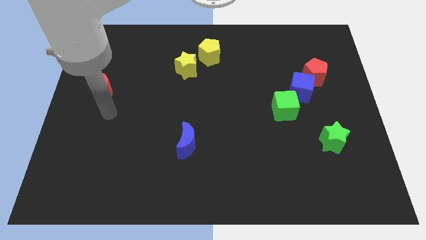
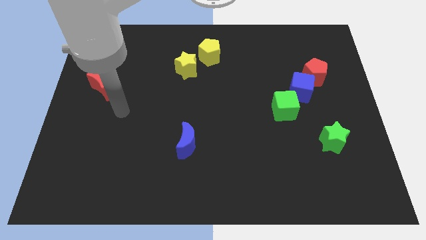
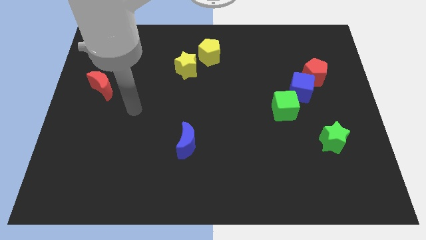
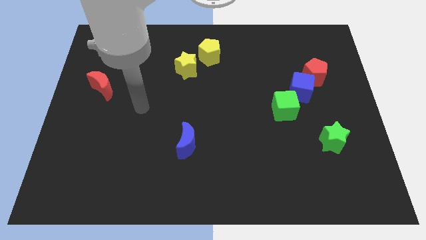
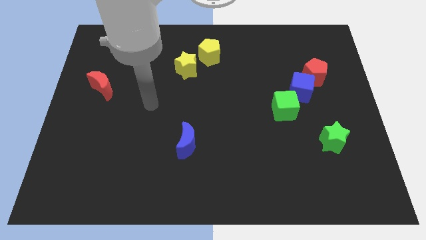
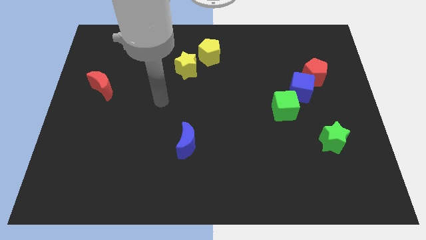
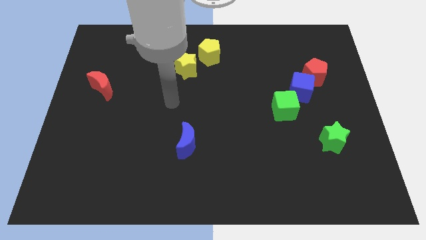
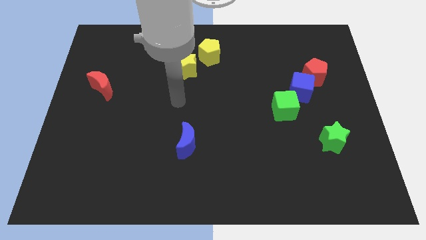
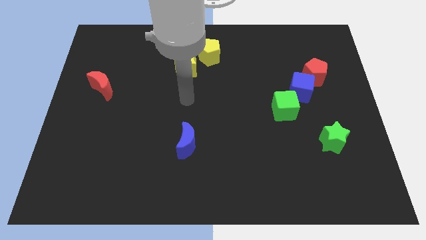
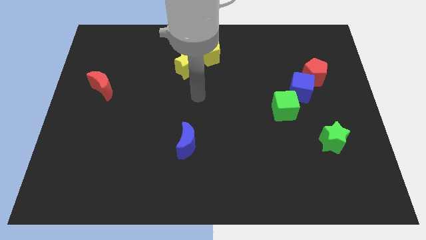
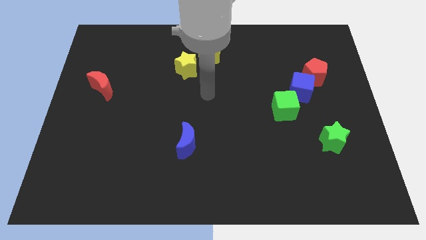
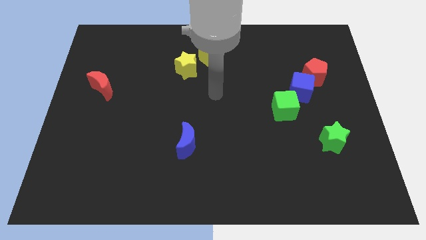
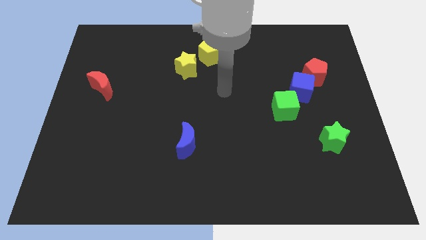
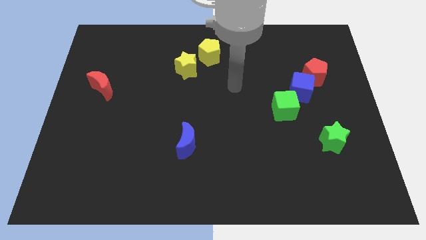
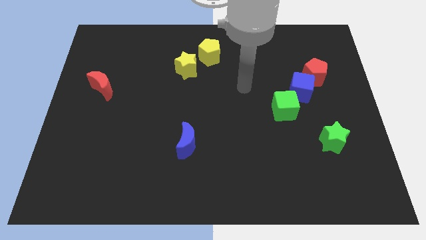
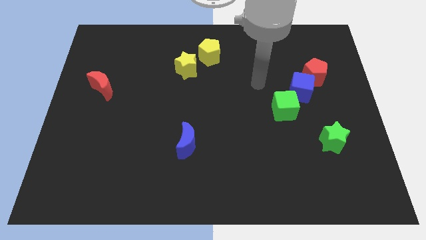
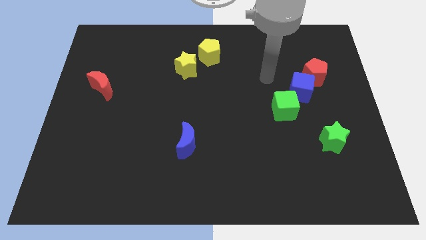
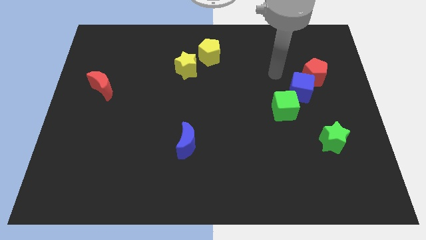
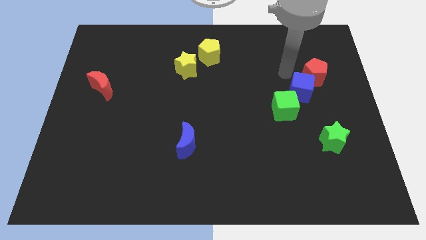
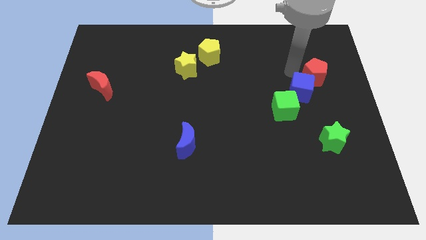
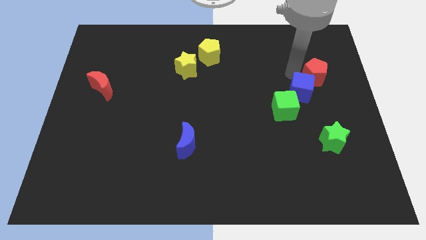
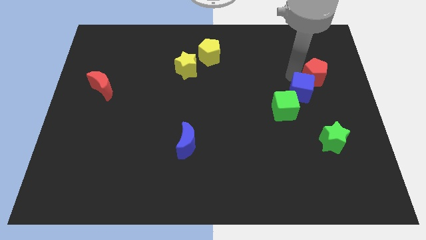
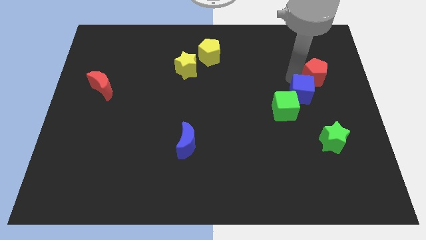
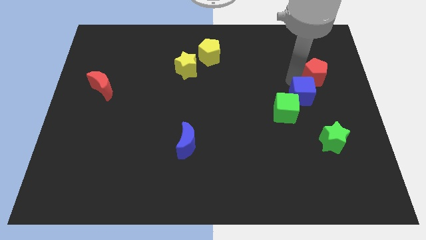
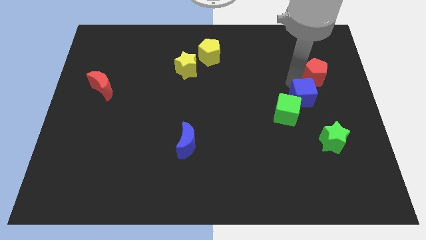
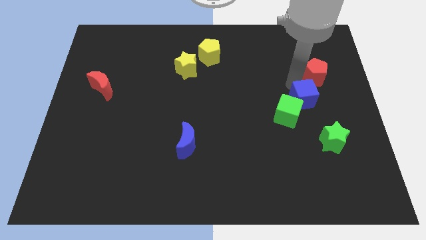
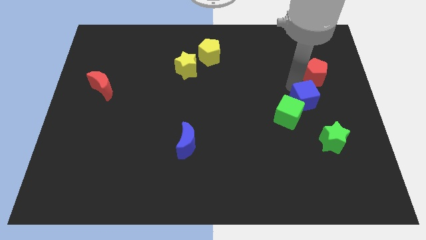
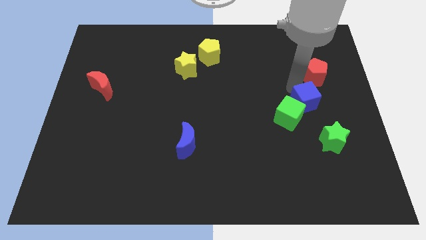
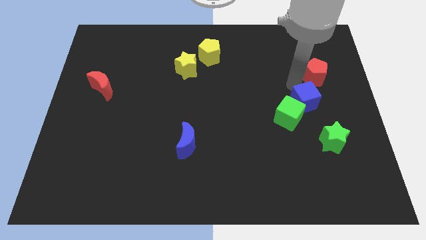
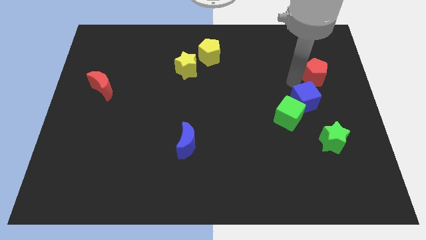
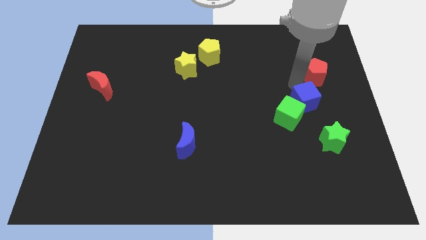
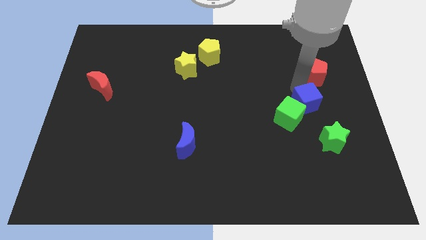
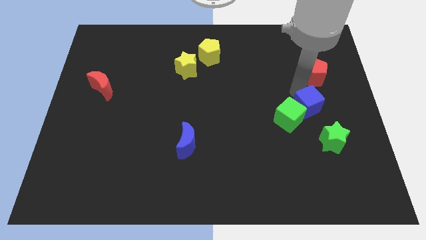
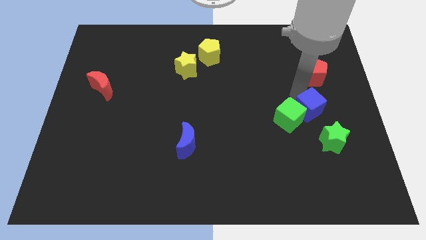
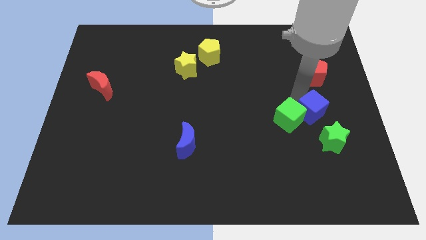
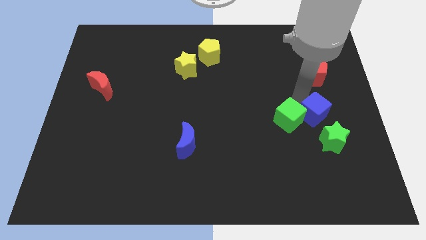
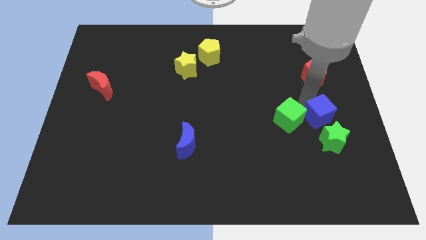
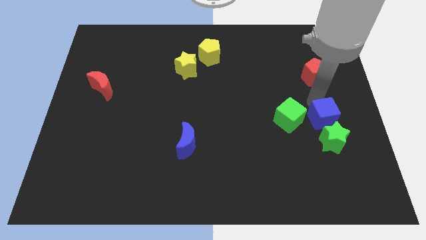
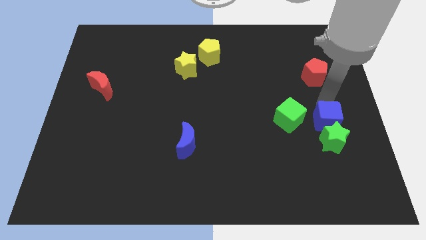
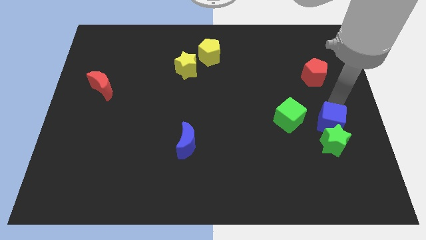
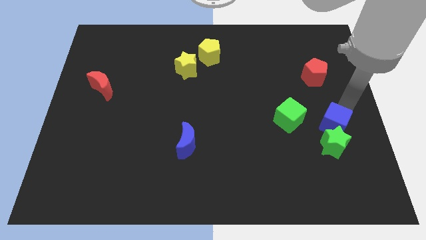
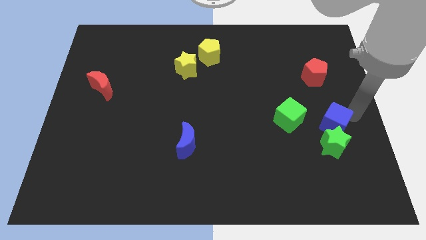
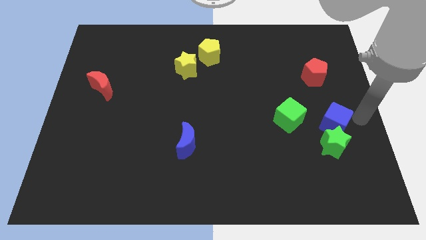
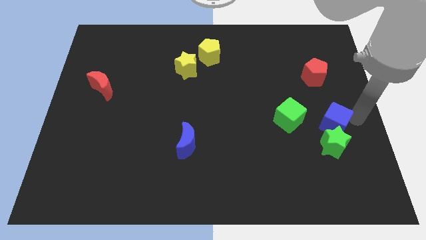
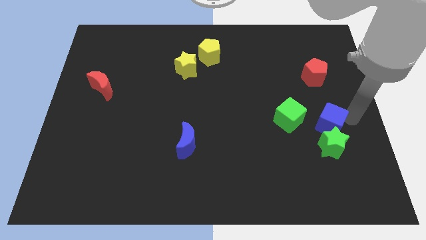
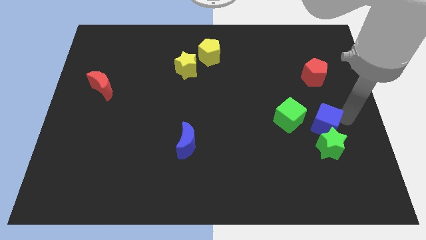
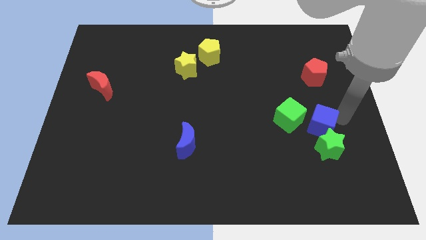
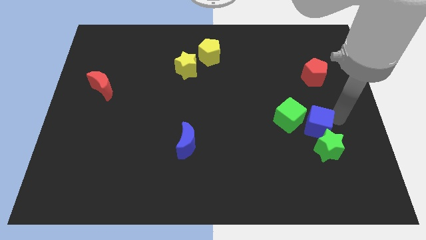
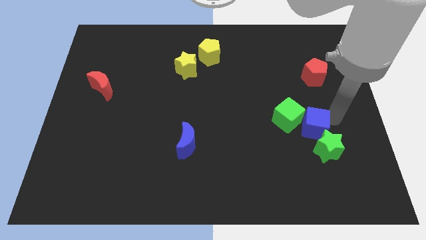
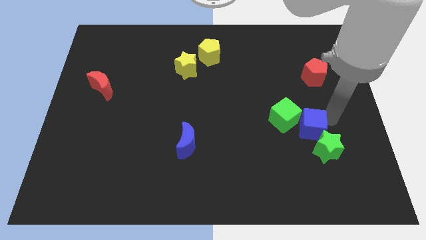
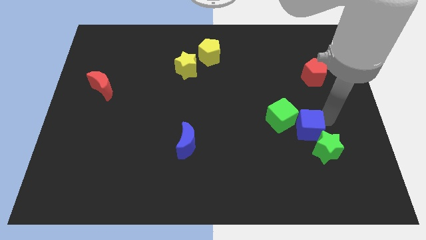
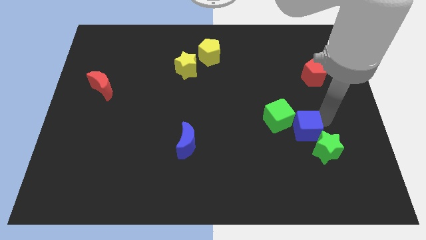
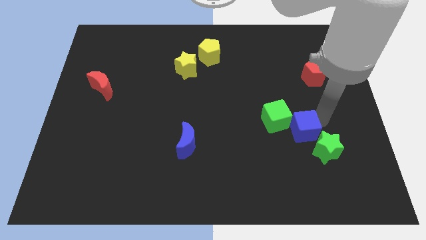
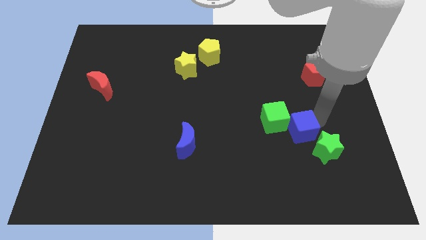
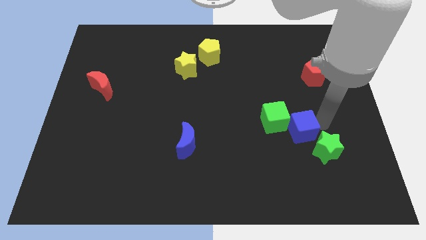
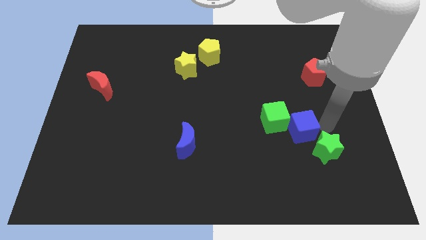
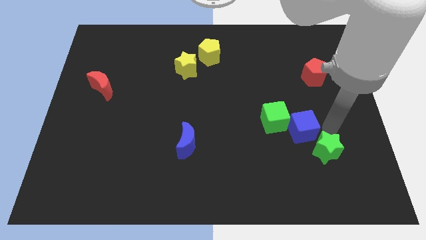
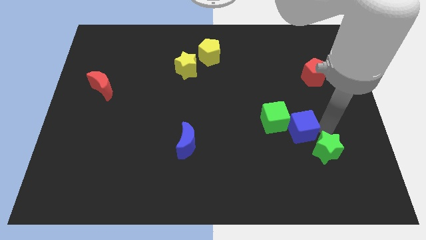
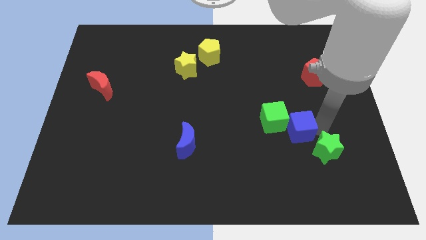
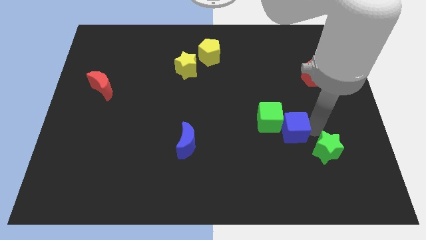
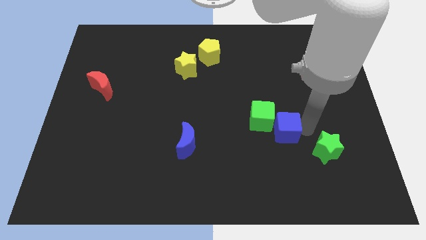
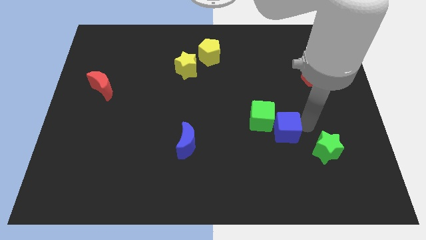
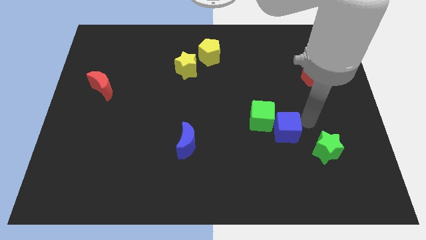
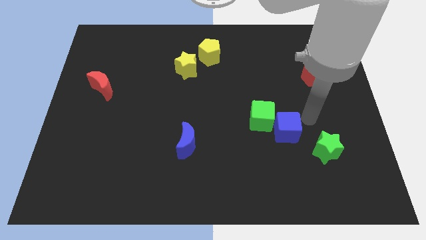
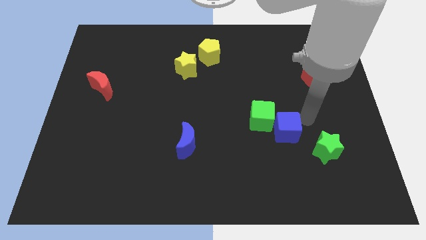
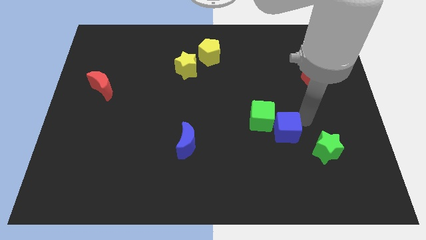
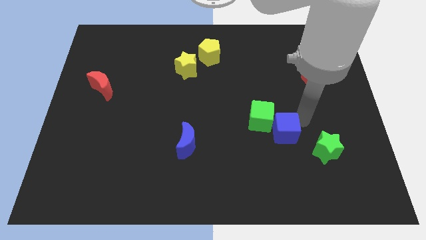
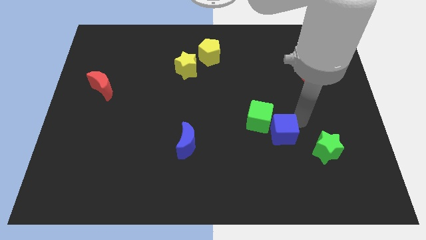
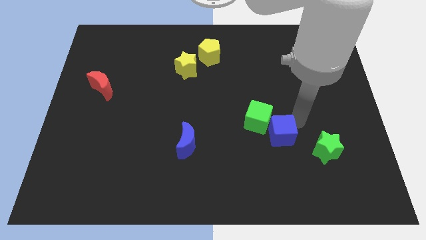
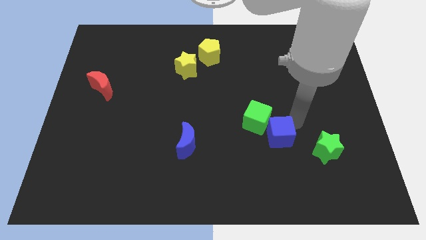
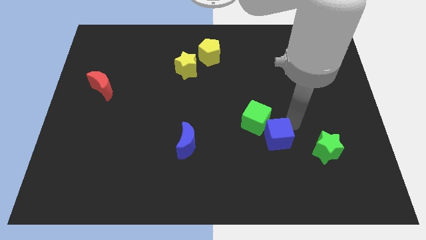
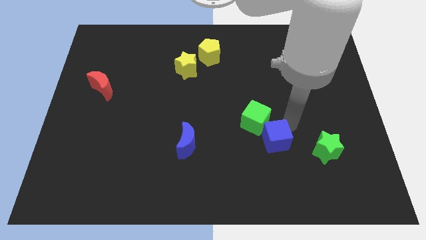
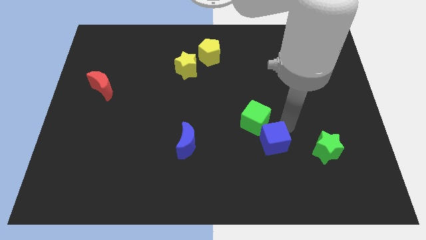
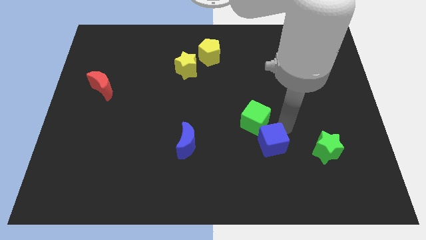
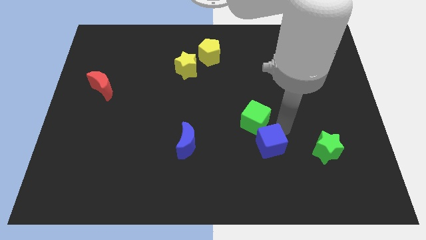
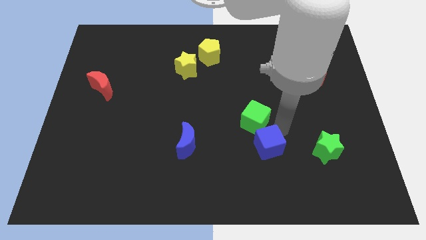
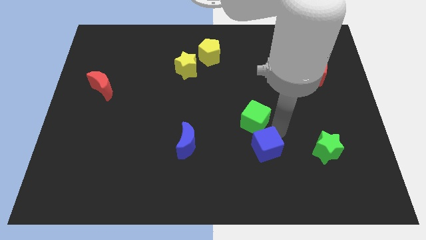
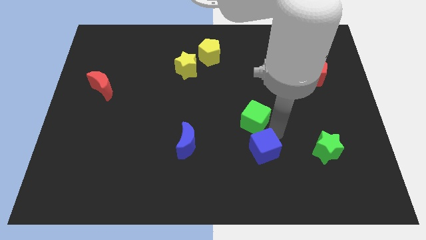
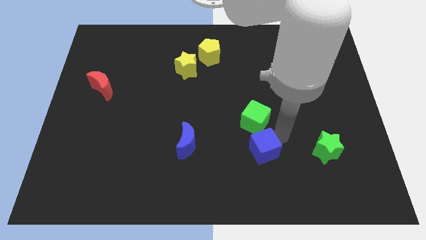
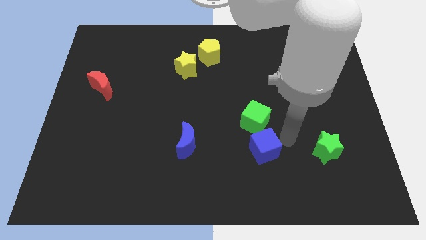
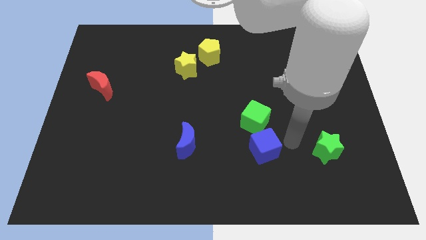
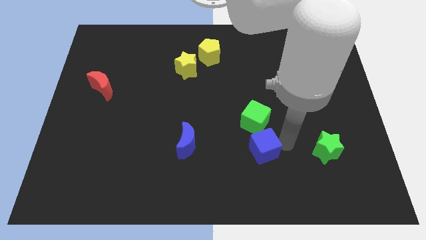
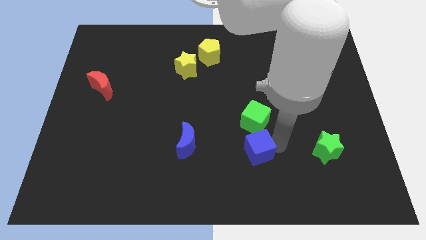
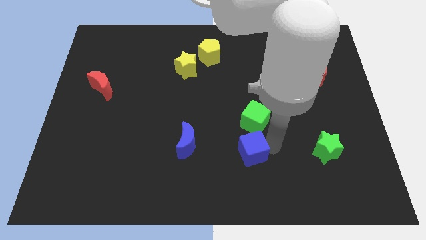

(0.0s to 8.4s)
slide the blue cube diagonally down and to the left

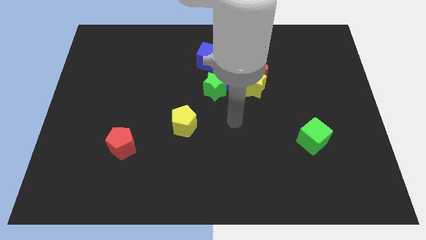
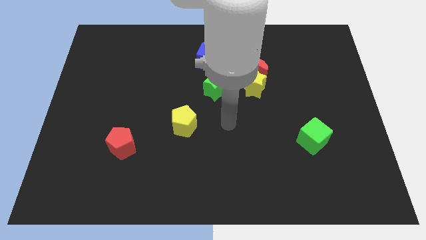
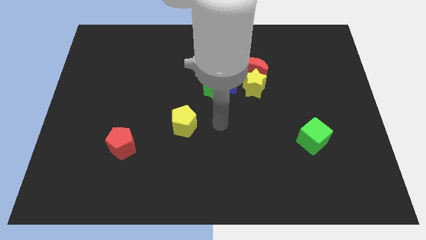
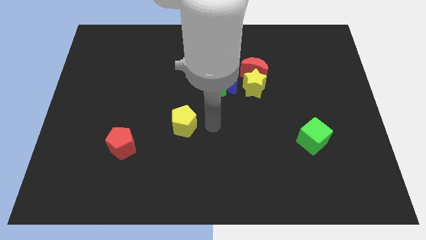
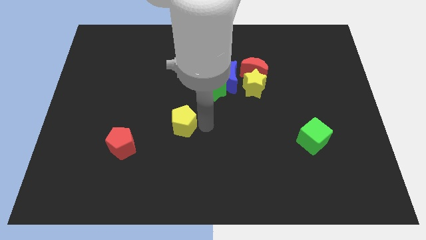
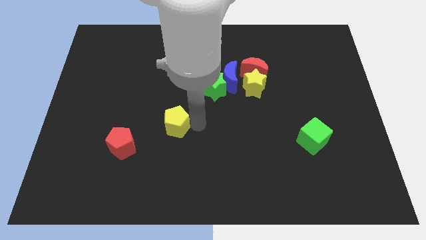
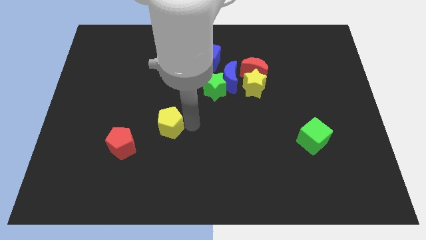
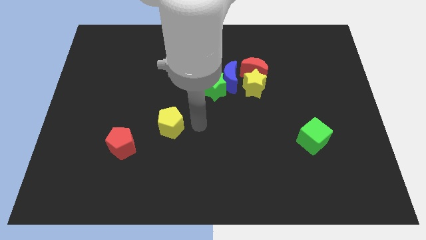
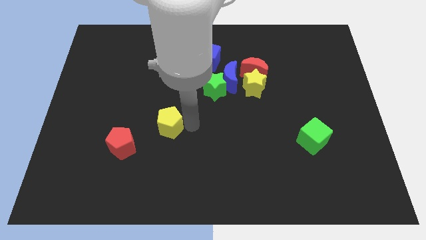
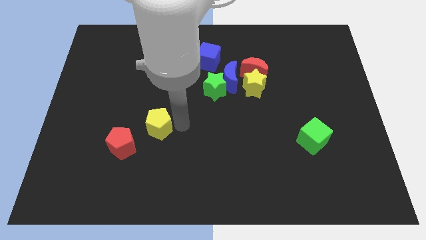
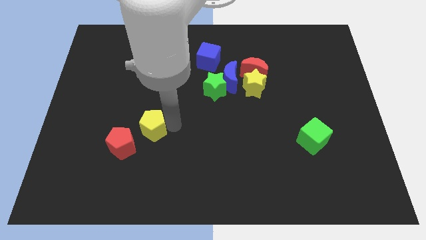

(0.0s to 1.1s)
slightly slide the yellow pentagon to the left
